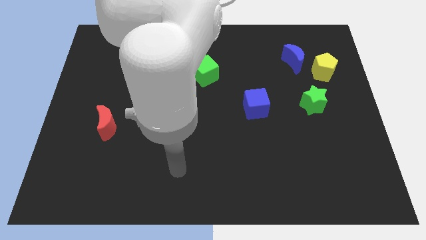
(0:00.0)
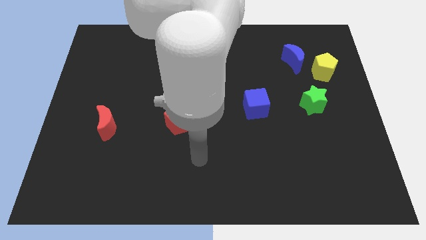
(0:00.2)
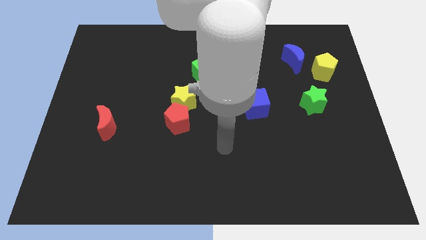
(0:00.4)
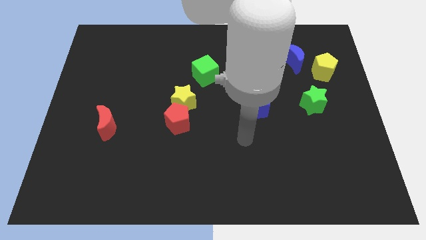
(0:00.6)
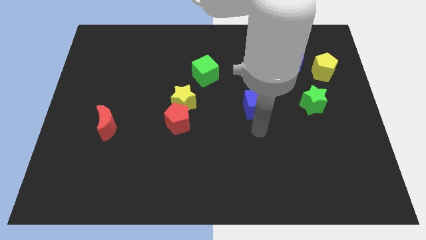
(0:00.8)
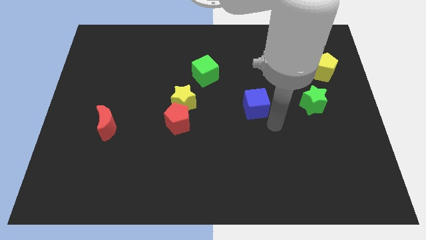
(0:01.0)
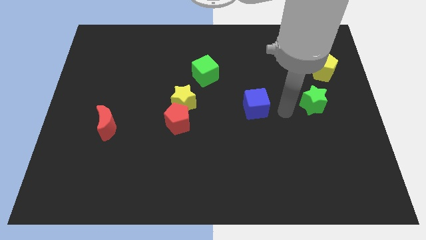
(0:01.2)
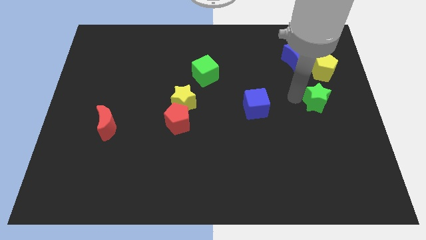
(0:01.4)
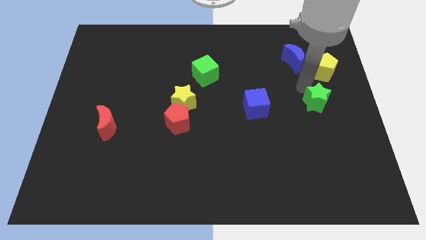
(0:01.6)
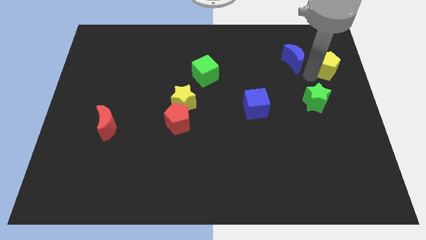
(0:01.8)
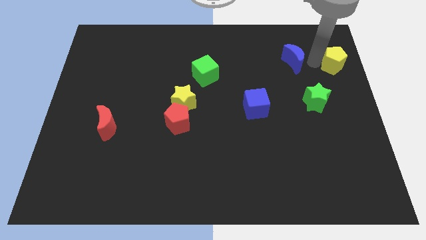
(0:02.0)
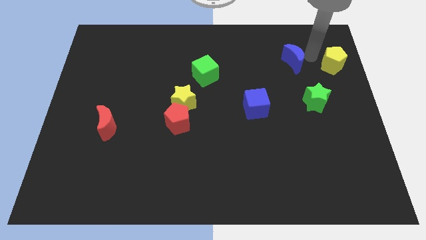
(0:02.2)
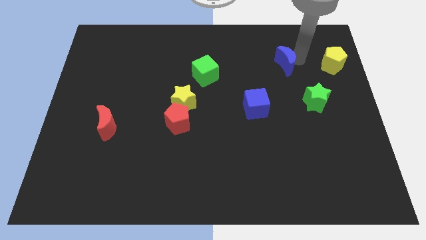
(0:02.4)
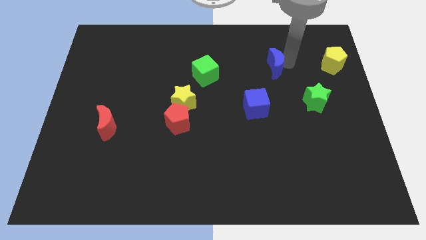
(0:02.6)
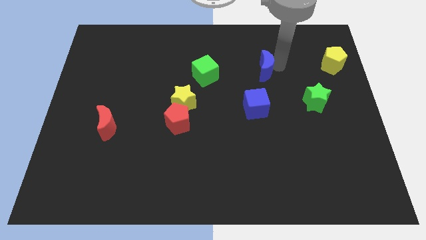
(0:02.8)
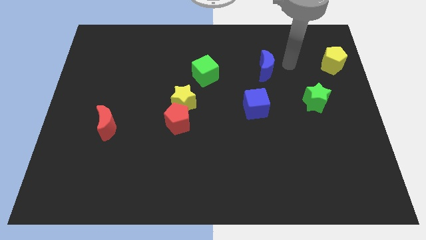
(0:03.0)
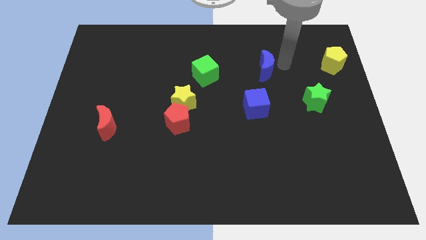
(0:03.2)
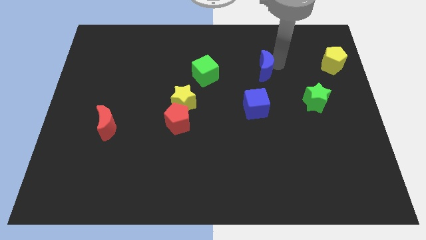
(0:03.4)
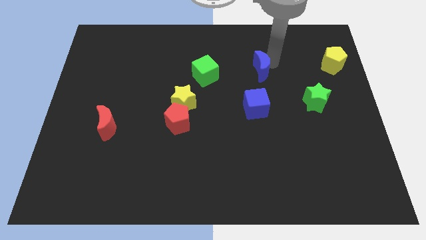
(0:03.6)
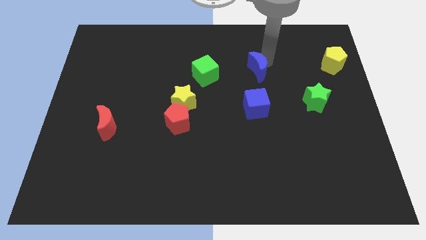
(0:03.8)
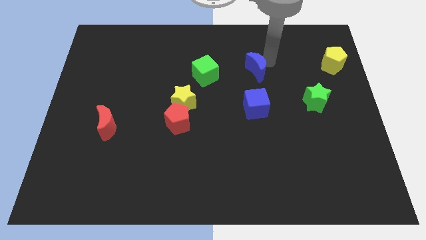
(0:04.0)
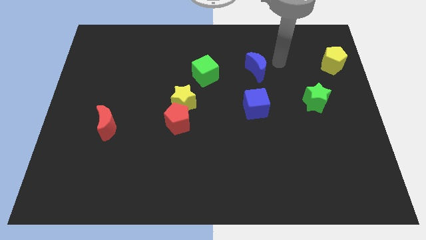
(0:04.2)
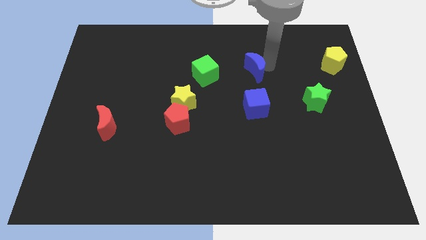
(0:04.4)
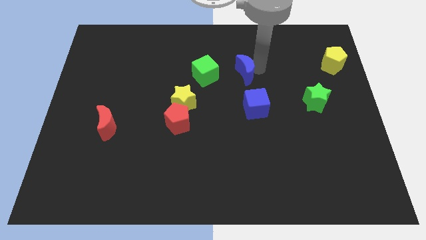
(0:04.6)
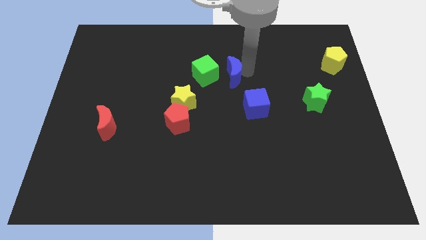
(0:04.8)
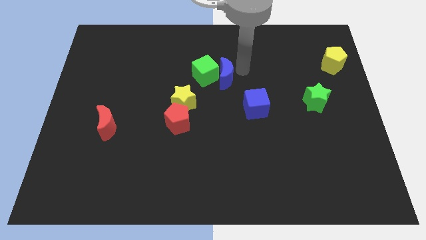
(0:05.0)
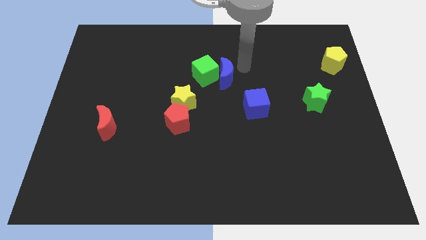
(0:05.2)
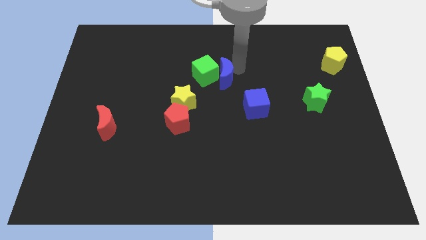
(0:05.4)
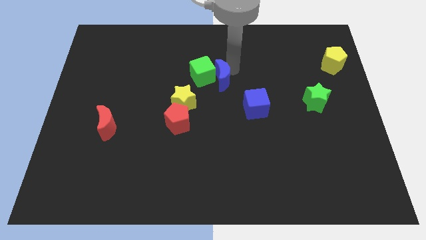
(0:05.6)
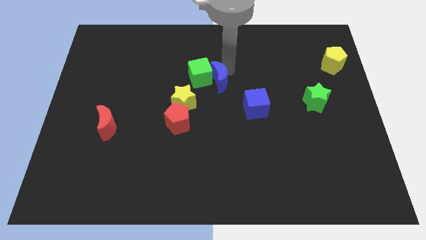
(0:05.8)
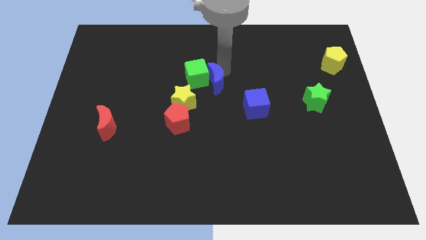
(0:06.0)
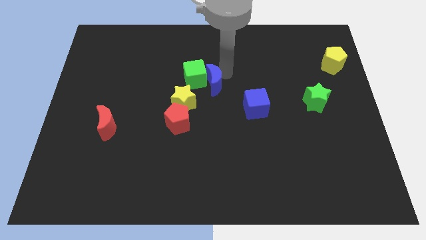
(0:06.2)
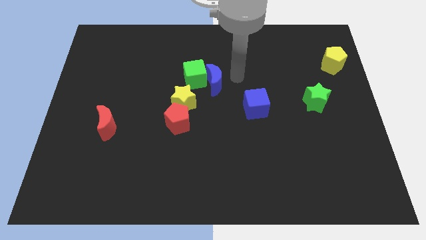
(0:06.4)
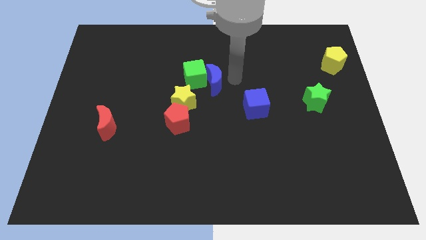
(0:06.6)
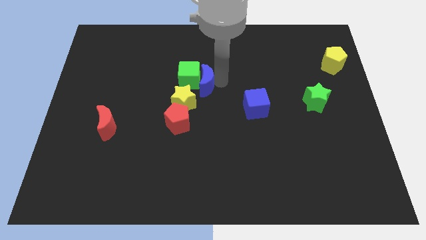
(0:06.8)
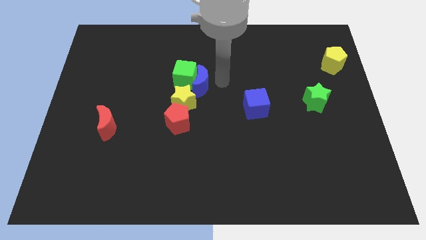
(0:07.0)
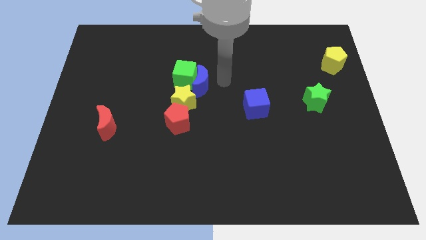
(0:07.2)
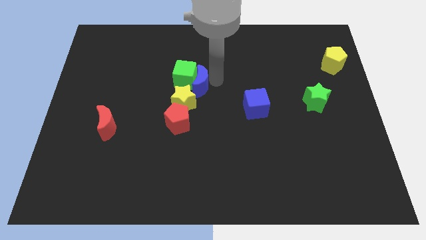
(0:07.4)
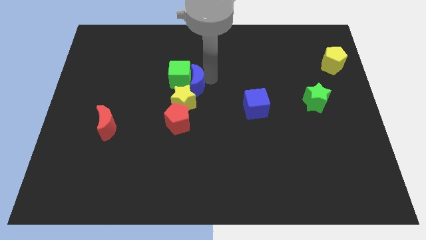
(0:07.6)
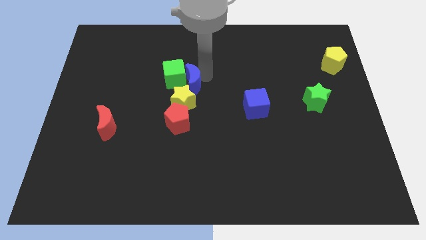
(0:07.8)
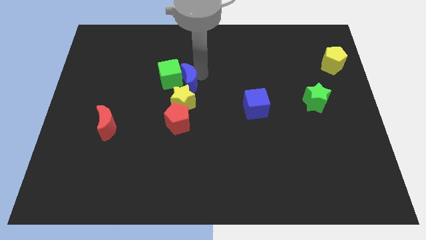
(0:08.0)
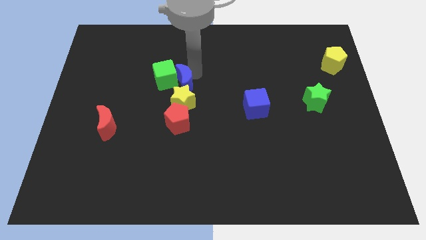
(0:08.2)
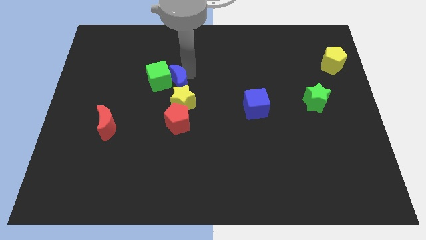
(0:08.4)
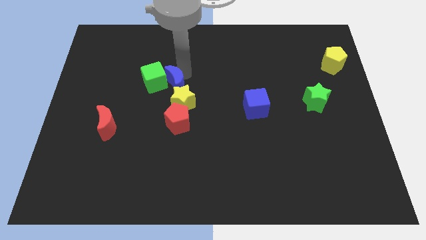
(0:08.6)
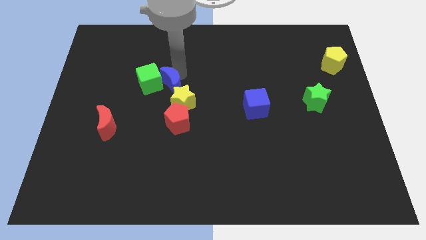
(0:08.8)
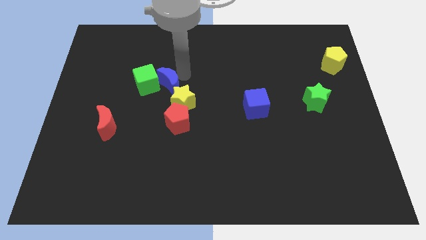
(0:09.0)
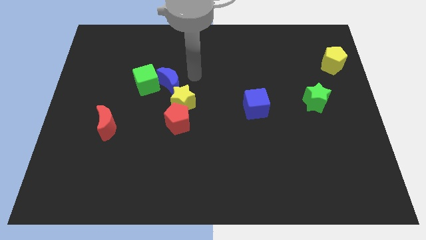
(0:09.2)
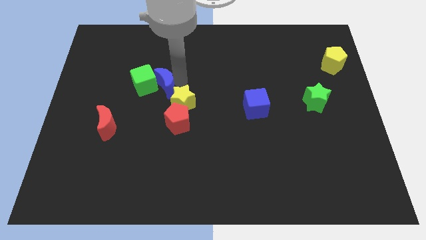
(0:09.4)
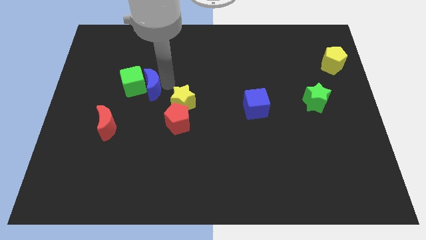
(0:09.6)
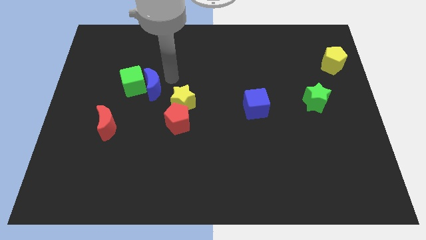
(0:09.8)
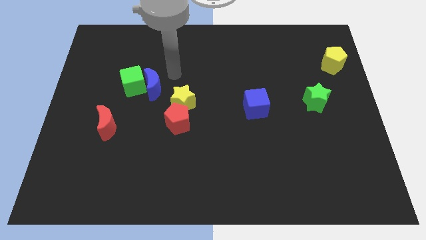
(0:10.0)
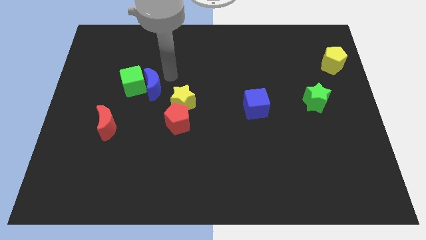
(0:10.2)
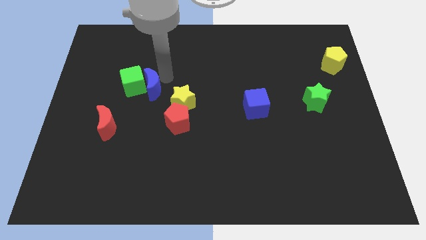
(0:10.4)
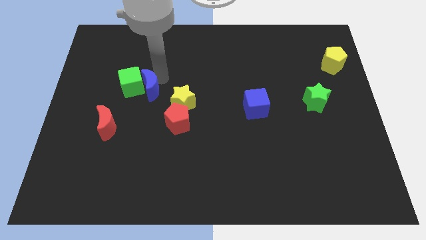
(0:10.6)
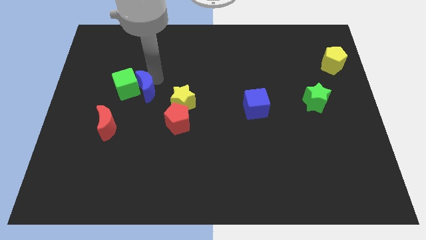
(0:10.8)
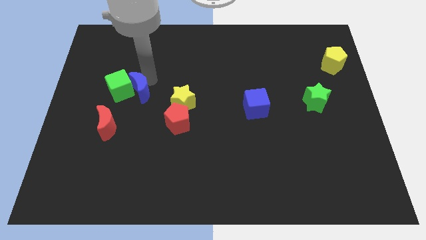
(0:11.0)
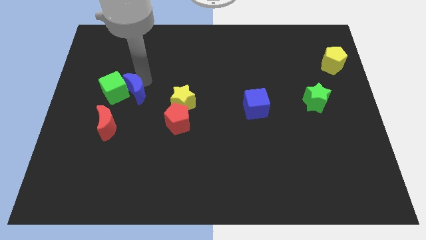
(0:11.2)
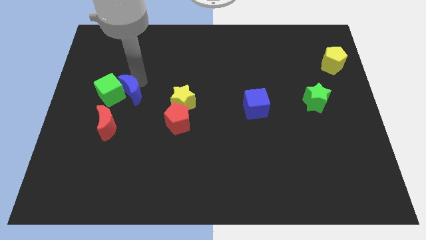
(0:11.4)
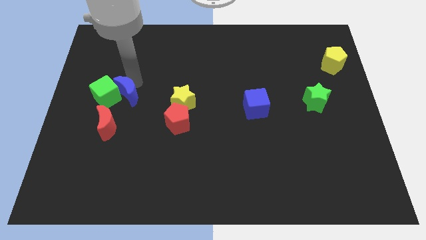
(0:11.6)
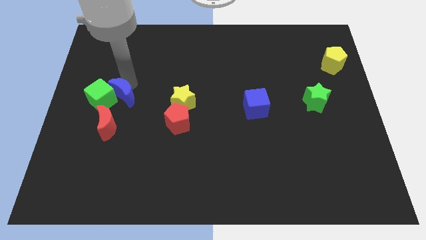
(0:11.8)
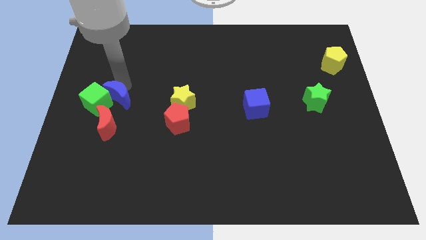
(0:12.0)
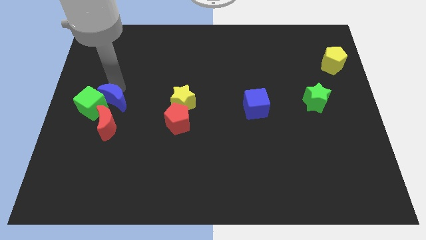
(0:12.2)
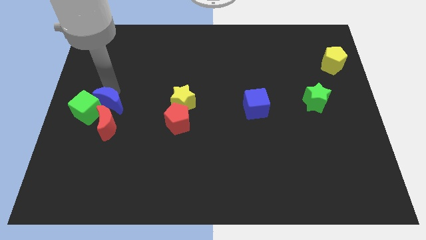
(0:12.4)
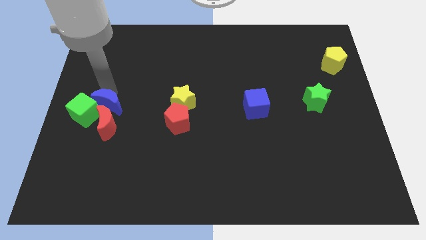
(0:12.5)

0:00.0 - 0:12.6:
move the blue moon close to the red moon
